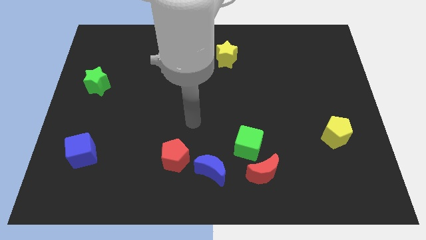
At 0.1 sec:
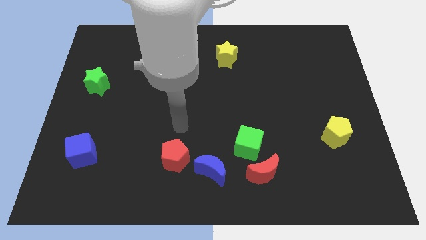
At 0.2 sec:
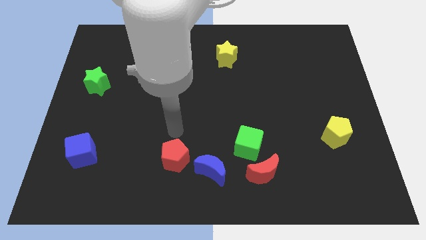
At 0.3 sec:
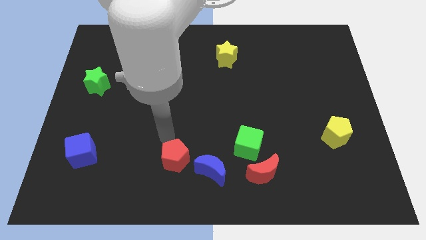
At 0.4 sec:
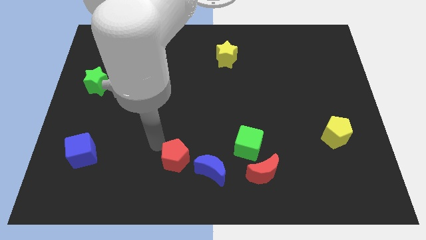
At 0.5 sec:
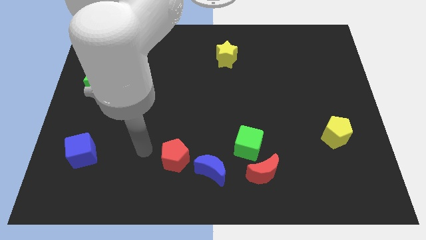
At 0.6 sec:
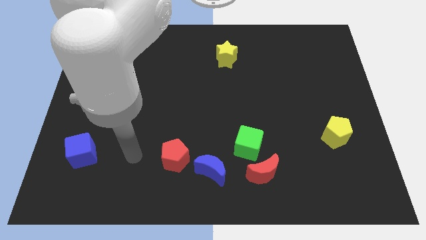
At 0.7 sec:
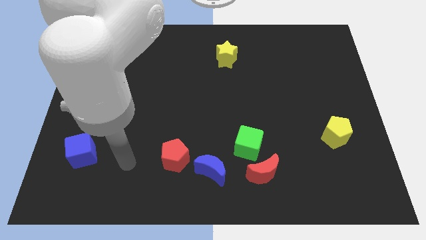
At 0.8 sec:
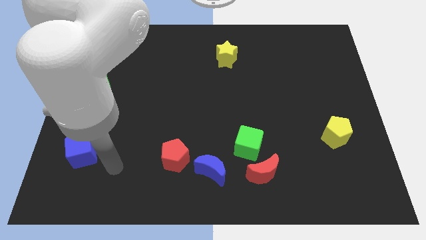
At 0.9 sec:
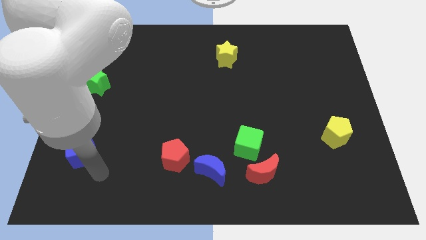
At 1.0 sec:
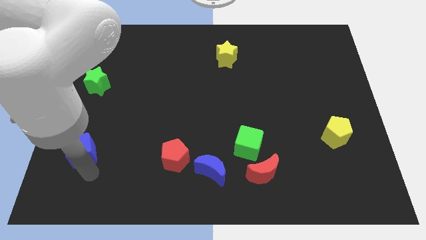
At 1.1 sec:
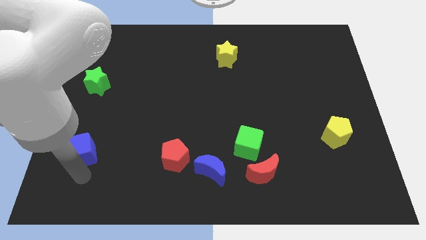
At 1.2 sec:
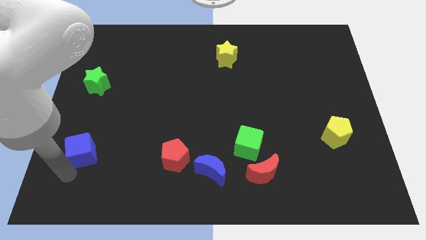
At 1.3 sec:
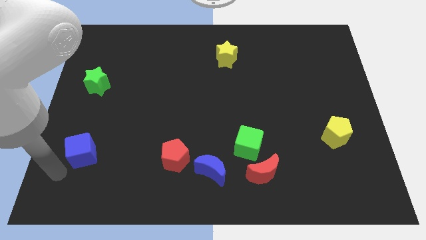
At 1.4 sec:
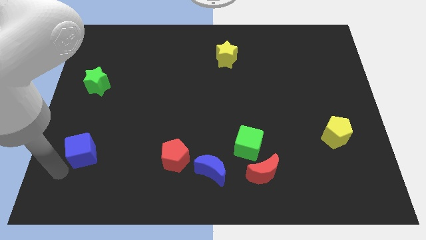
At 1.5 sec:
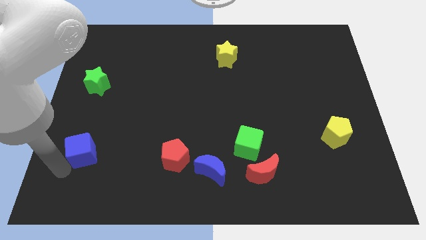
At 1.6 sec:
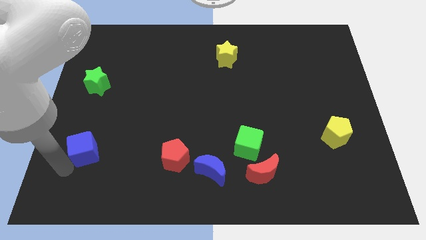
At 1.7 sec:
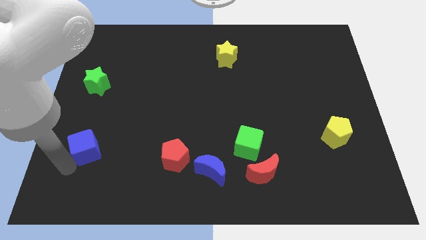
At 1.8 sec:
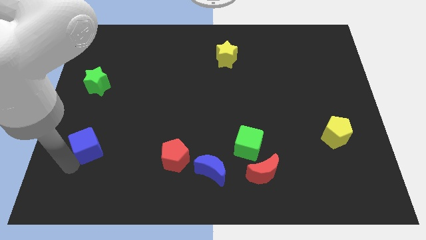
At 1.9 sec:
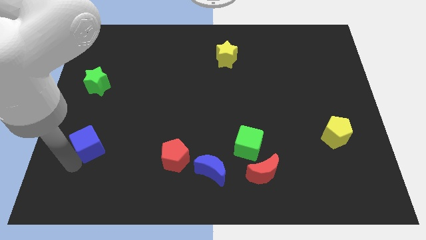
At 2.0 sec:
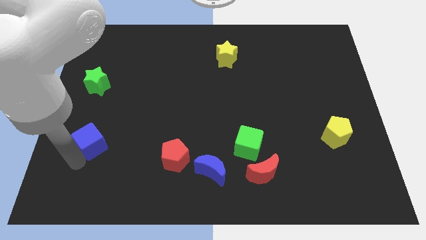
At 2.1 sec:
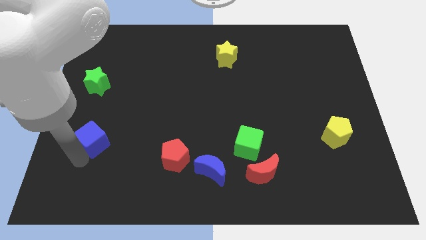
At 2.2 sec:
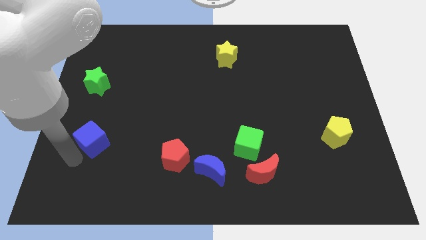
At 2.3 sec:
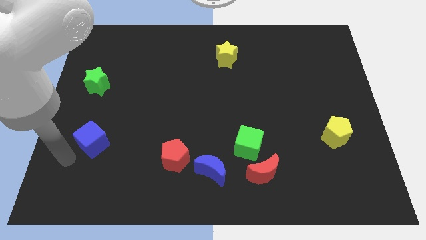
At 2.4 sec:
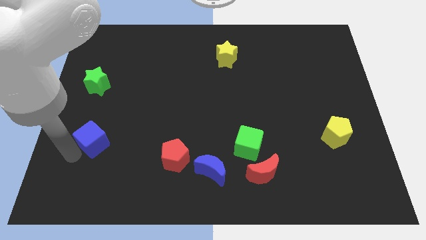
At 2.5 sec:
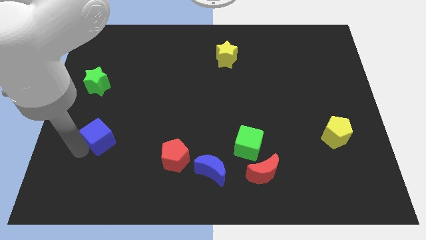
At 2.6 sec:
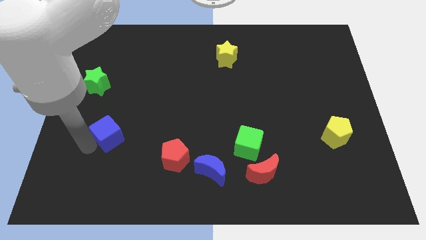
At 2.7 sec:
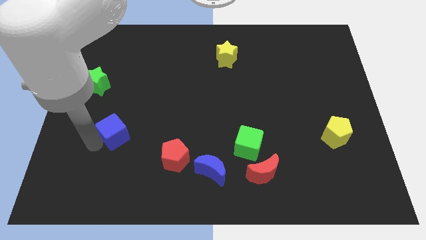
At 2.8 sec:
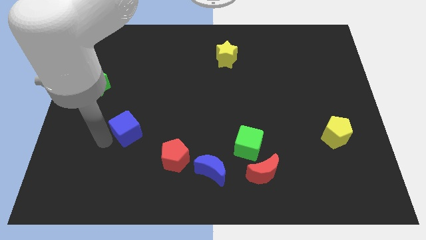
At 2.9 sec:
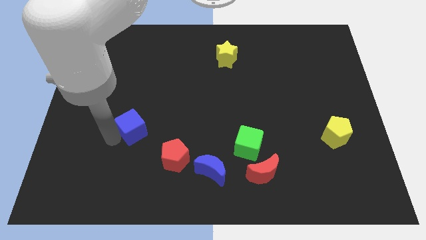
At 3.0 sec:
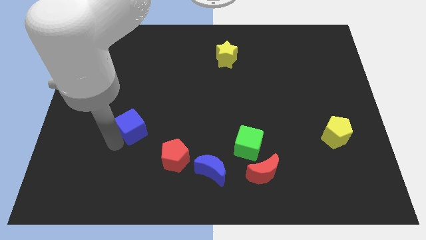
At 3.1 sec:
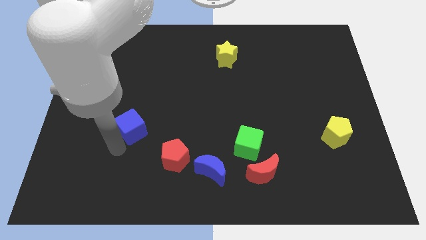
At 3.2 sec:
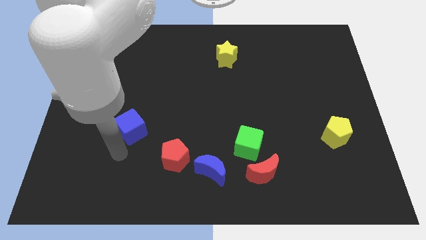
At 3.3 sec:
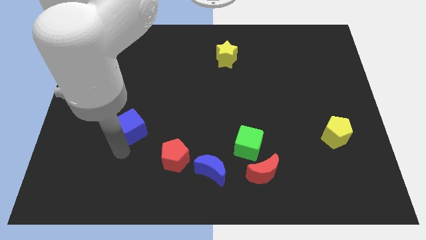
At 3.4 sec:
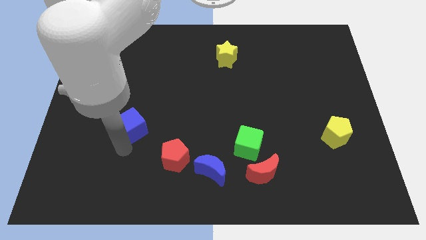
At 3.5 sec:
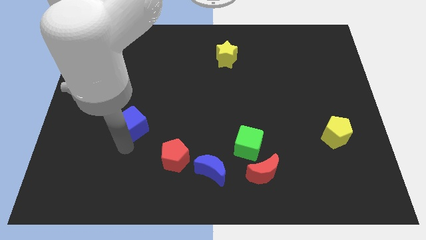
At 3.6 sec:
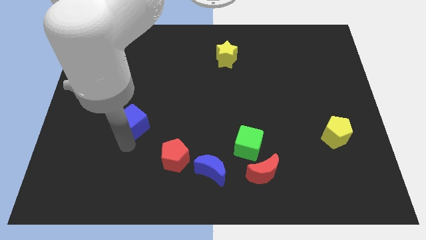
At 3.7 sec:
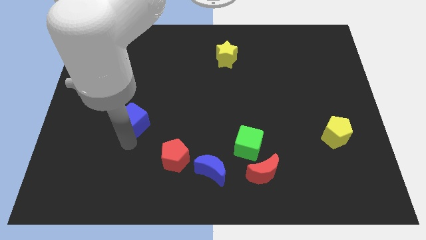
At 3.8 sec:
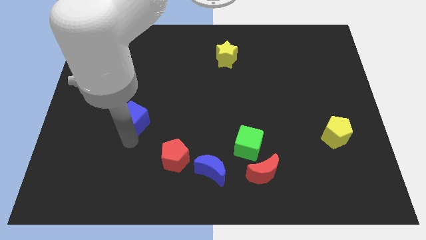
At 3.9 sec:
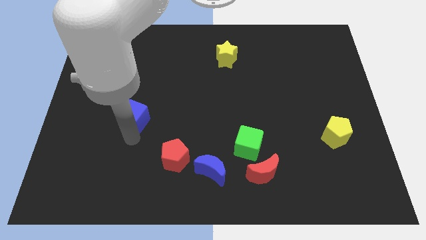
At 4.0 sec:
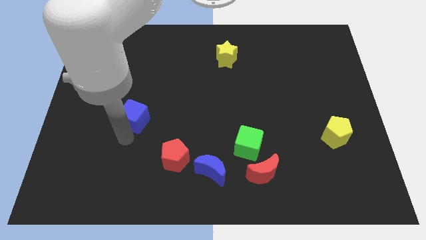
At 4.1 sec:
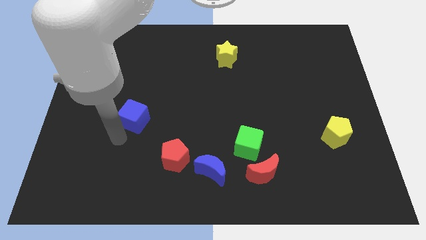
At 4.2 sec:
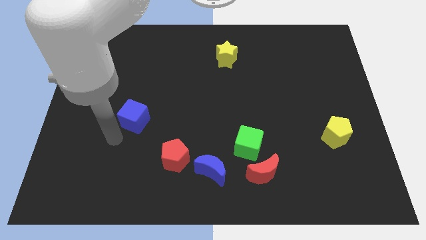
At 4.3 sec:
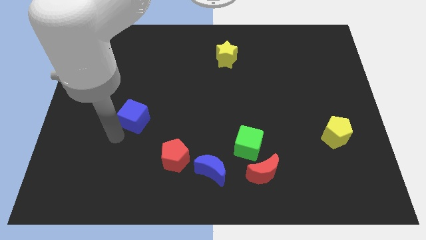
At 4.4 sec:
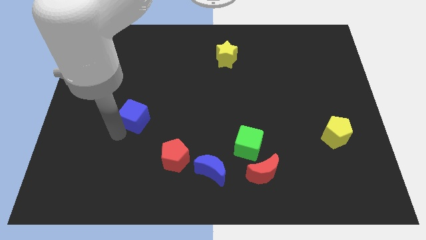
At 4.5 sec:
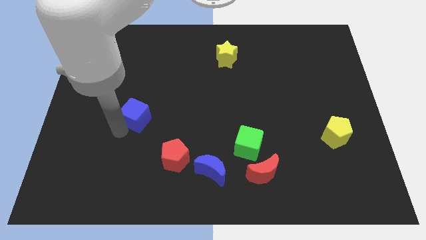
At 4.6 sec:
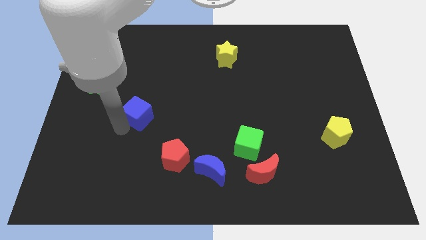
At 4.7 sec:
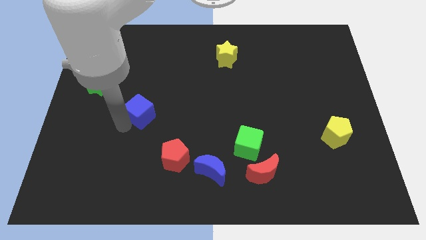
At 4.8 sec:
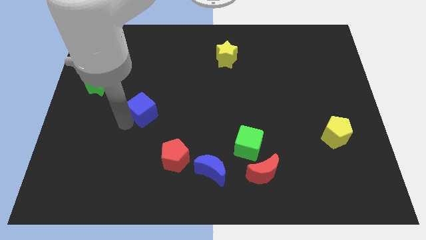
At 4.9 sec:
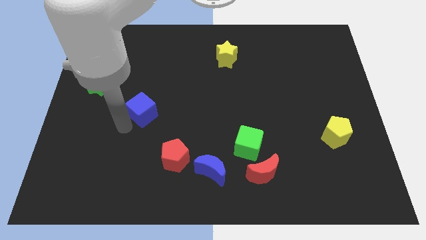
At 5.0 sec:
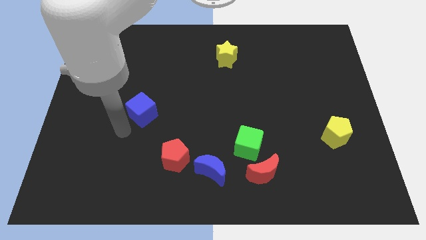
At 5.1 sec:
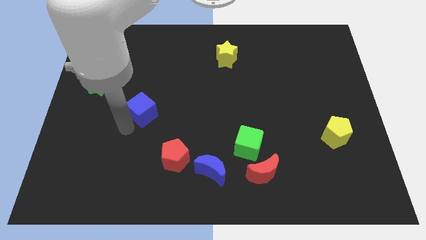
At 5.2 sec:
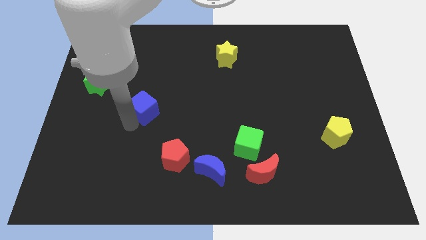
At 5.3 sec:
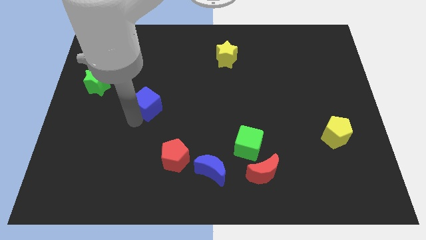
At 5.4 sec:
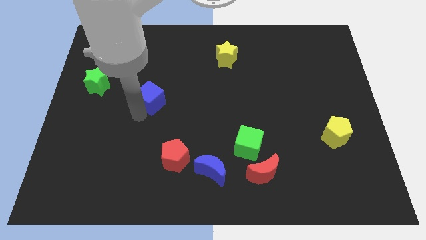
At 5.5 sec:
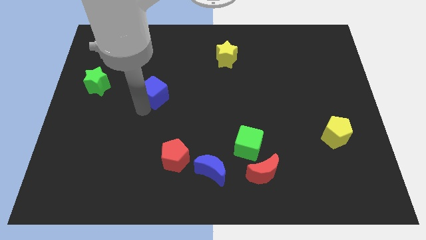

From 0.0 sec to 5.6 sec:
move the blue cube up and to the right diagonally

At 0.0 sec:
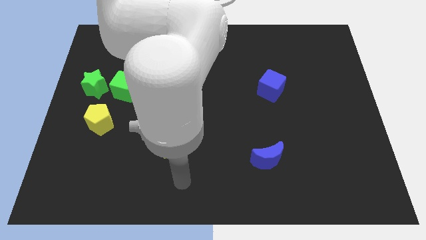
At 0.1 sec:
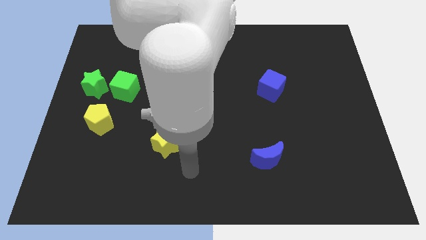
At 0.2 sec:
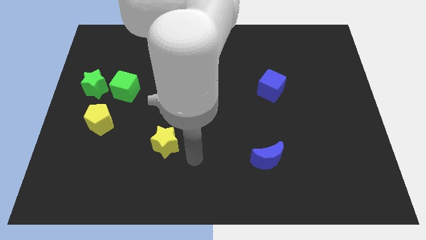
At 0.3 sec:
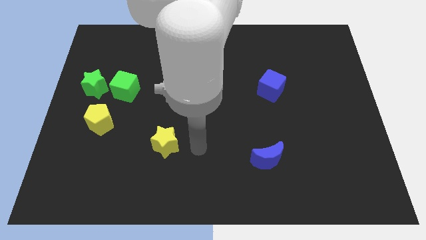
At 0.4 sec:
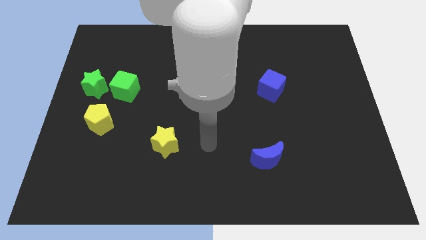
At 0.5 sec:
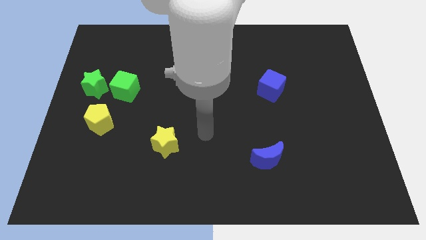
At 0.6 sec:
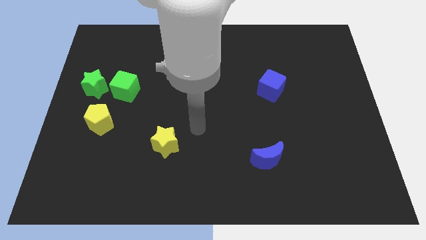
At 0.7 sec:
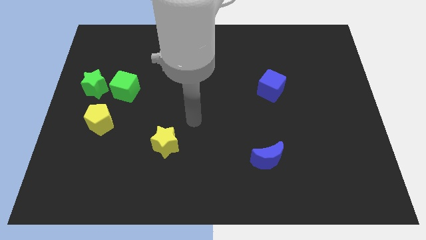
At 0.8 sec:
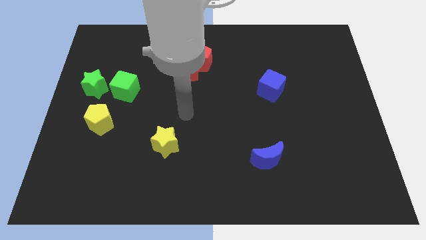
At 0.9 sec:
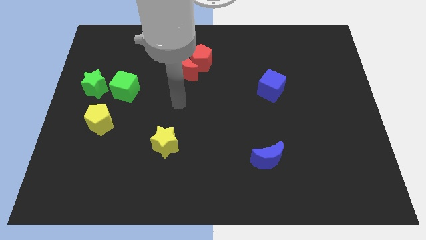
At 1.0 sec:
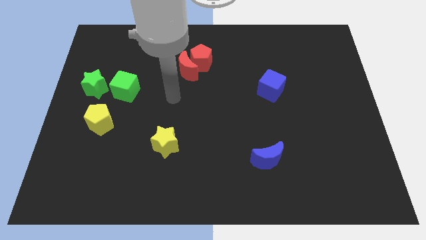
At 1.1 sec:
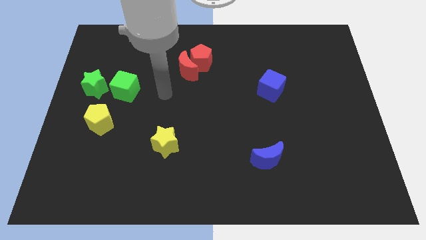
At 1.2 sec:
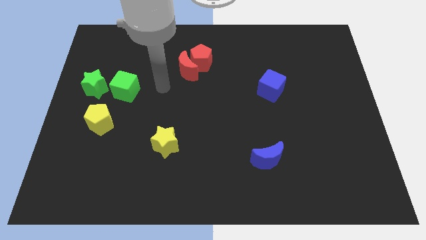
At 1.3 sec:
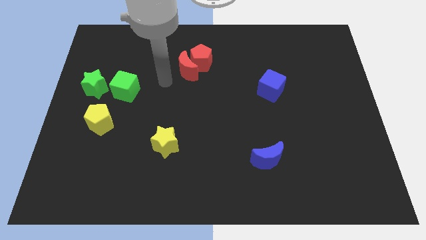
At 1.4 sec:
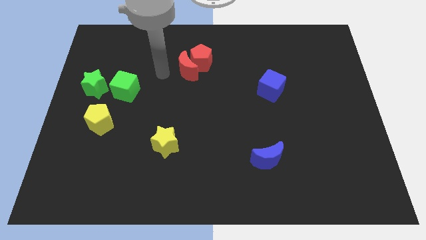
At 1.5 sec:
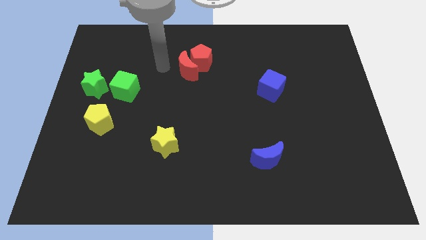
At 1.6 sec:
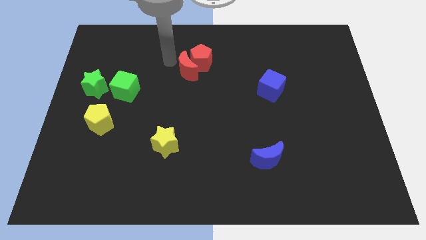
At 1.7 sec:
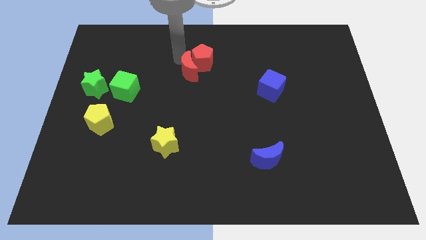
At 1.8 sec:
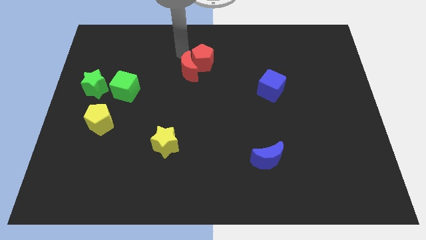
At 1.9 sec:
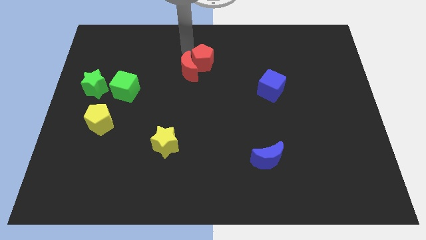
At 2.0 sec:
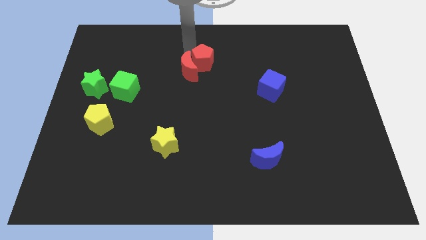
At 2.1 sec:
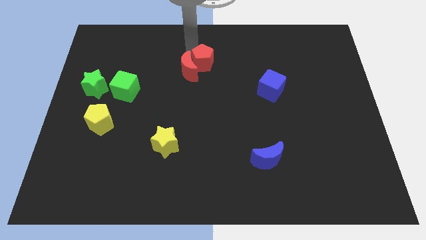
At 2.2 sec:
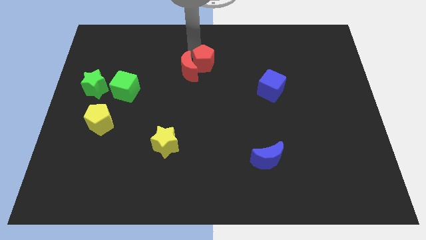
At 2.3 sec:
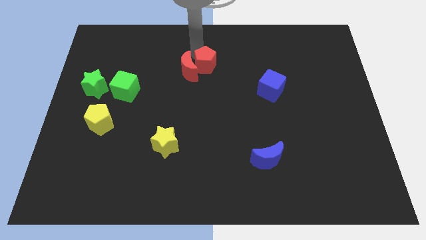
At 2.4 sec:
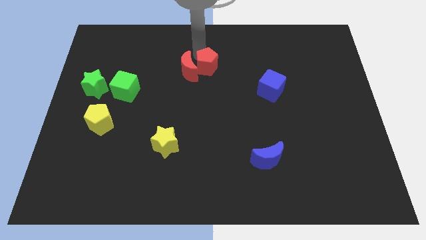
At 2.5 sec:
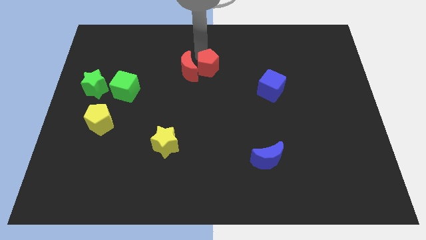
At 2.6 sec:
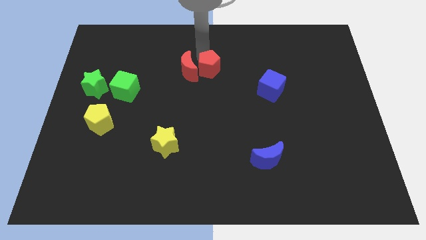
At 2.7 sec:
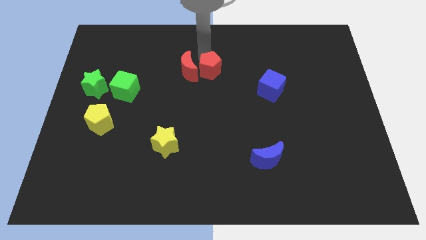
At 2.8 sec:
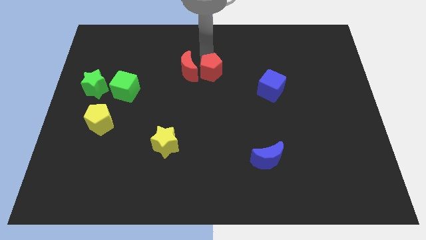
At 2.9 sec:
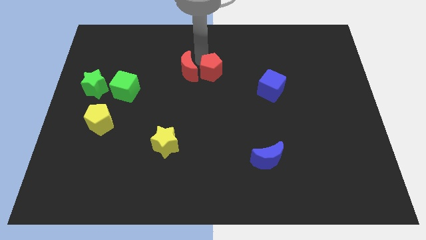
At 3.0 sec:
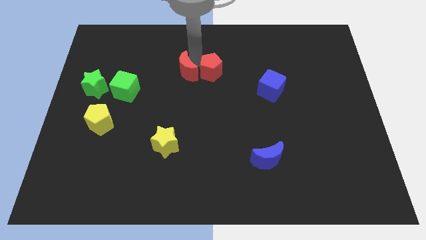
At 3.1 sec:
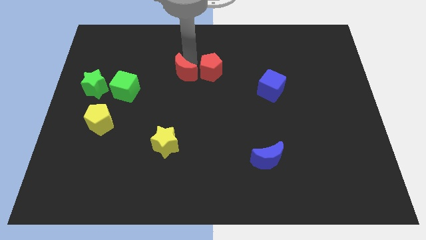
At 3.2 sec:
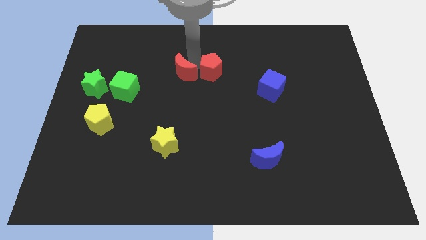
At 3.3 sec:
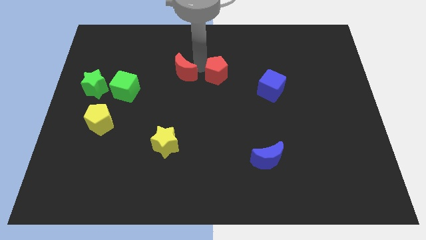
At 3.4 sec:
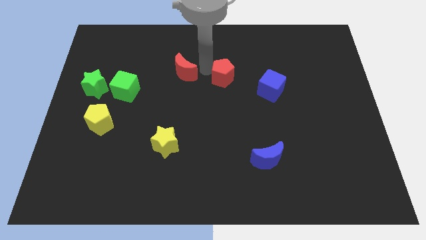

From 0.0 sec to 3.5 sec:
push the red pentagon a little down and right diagonally
